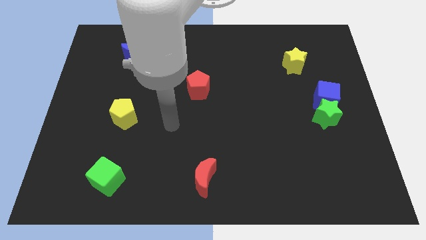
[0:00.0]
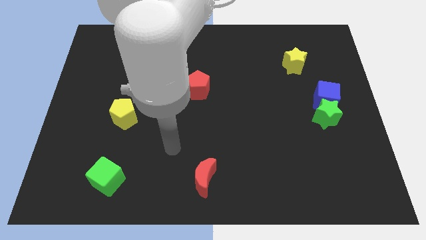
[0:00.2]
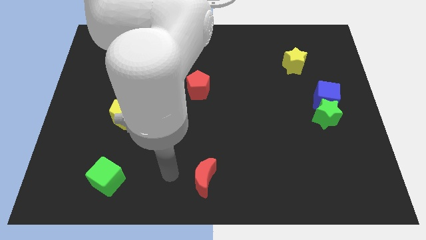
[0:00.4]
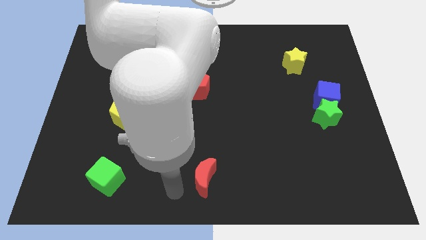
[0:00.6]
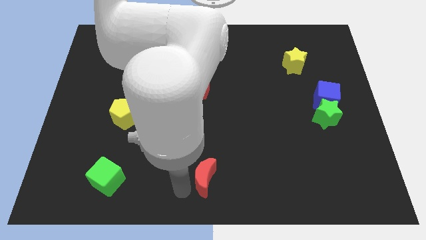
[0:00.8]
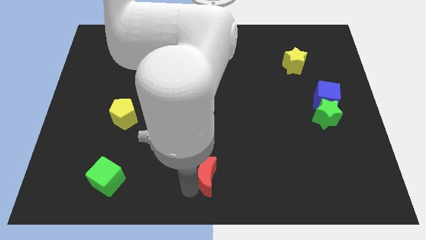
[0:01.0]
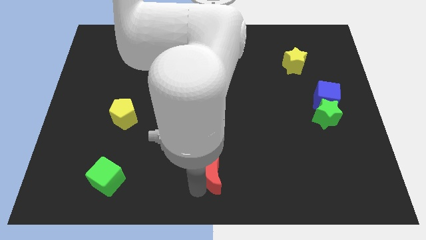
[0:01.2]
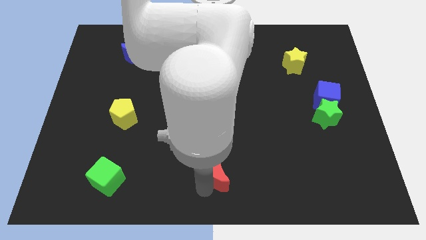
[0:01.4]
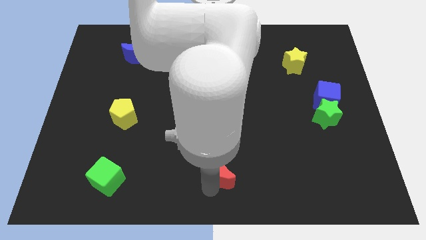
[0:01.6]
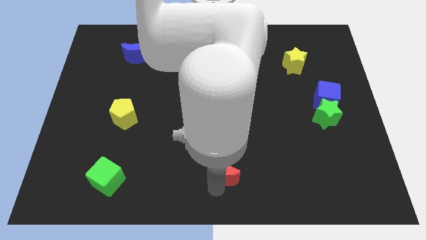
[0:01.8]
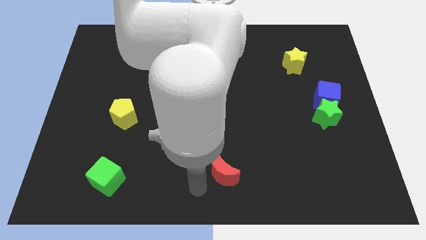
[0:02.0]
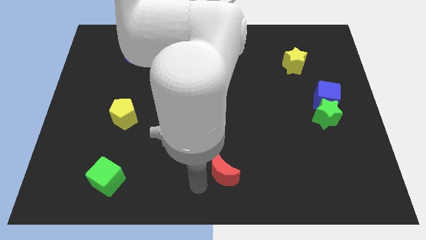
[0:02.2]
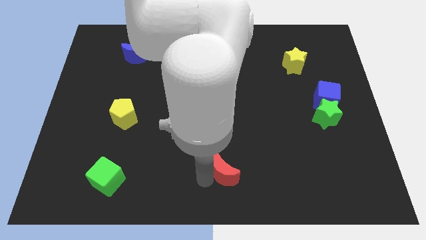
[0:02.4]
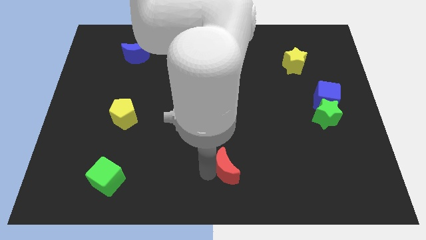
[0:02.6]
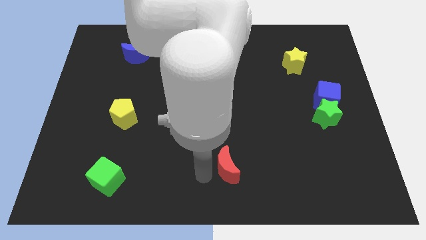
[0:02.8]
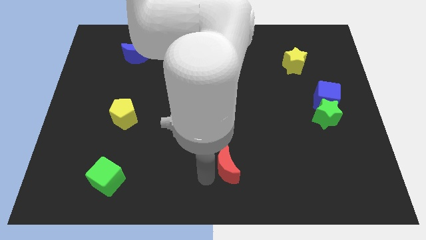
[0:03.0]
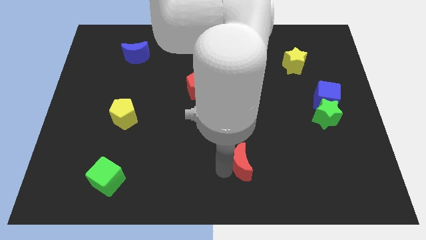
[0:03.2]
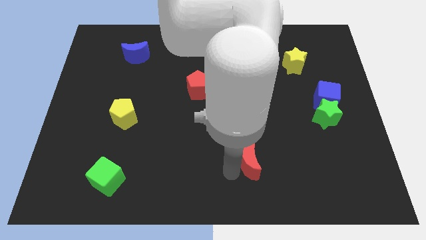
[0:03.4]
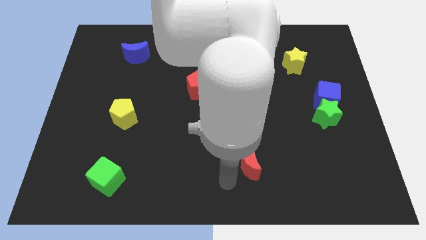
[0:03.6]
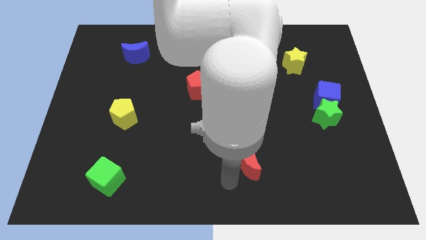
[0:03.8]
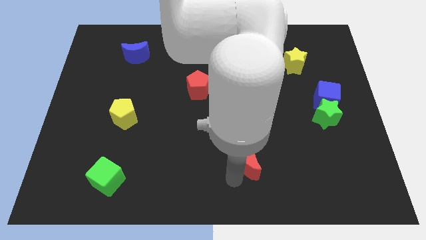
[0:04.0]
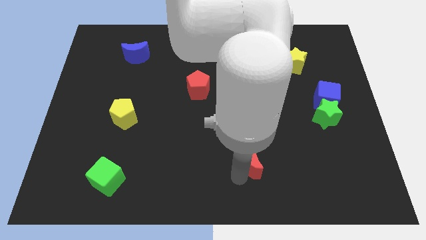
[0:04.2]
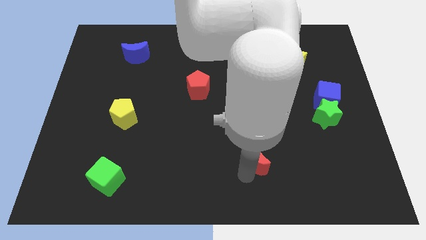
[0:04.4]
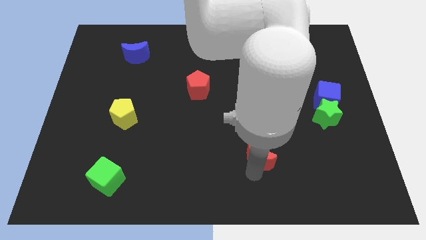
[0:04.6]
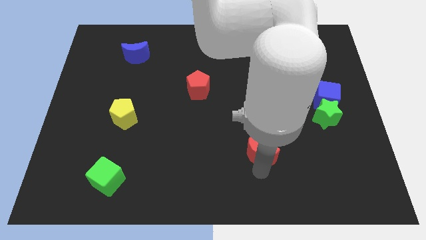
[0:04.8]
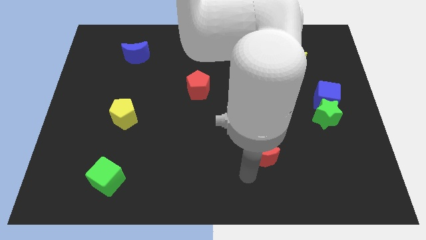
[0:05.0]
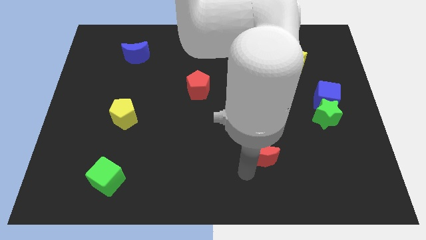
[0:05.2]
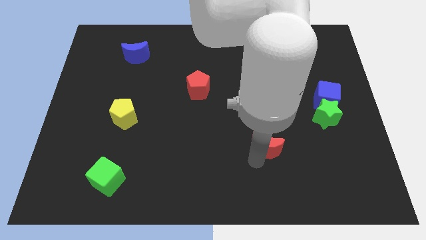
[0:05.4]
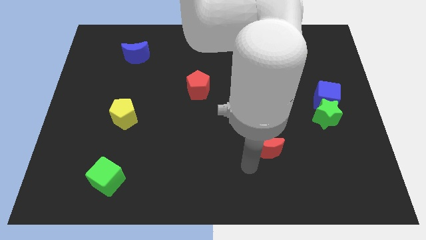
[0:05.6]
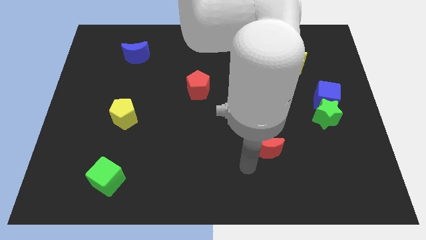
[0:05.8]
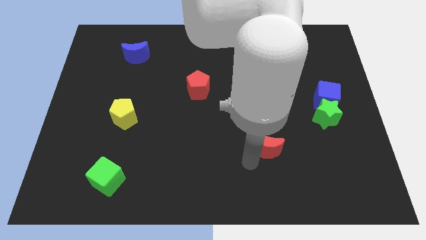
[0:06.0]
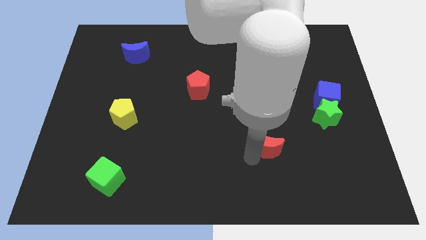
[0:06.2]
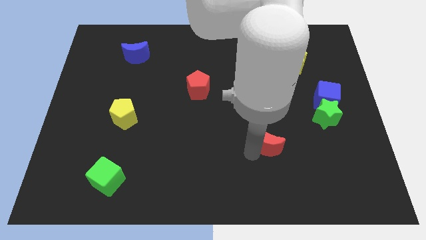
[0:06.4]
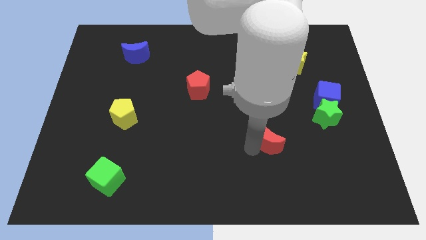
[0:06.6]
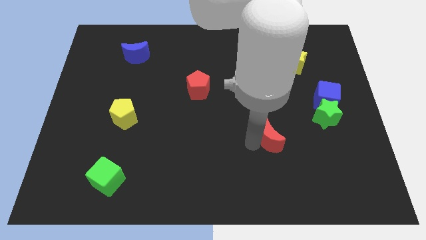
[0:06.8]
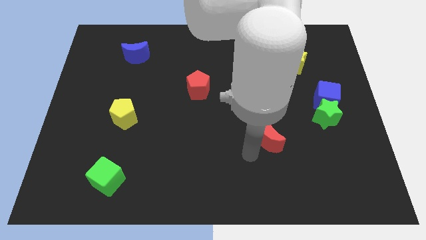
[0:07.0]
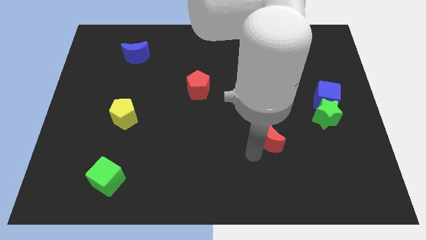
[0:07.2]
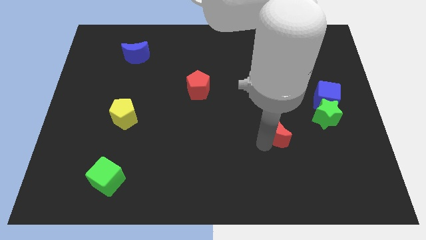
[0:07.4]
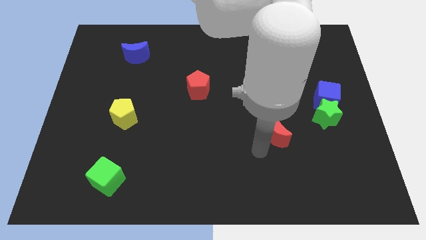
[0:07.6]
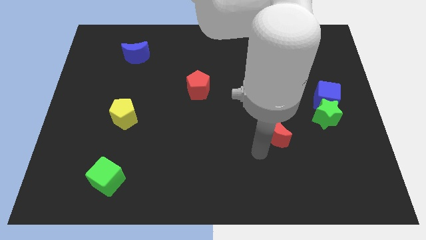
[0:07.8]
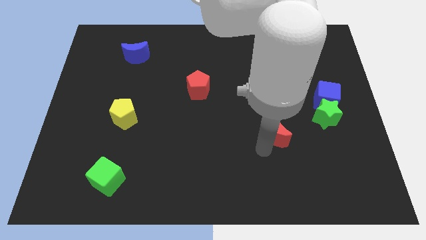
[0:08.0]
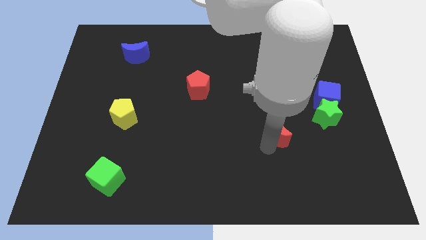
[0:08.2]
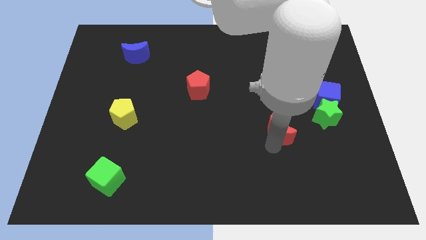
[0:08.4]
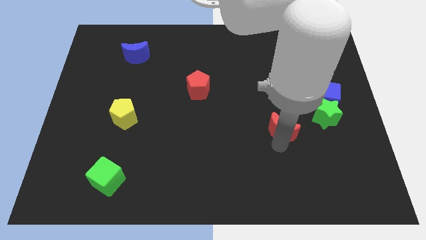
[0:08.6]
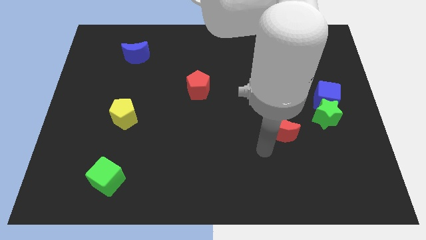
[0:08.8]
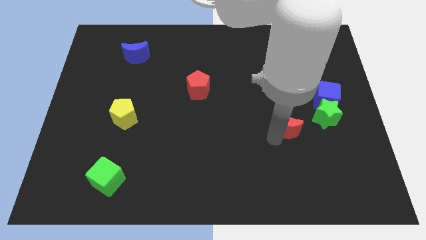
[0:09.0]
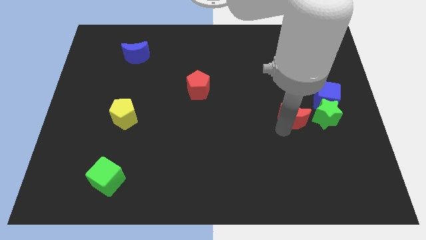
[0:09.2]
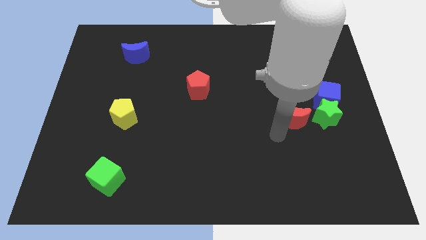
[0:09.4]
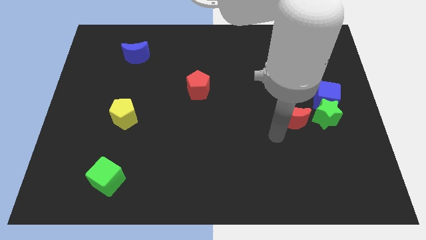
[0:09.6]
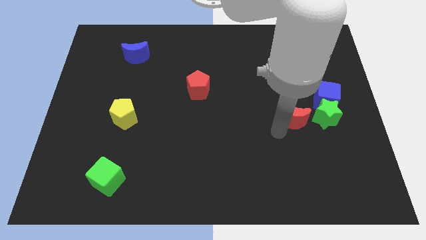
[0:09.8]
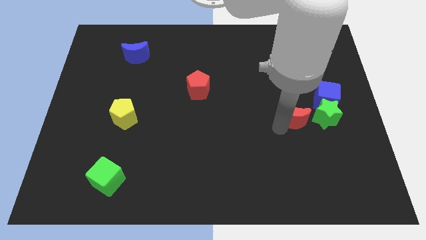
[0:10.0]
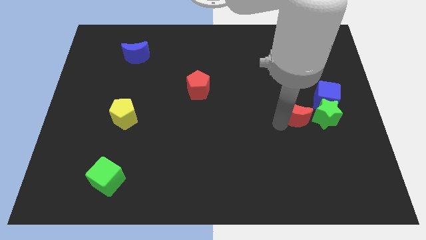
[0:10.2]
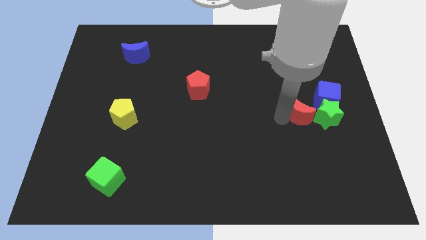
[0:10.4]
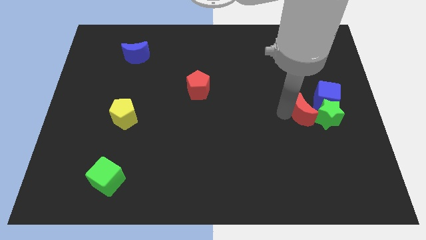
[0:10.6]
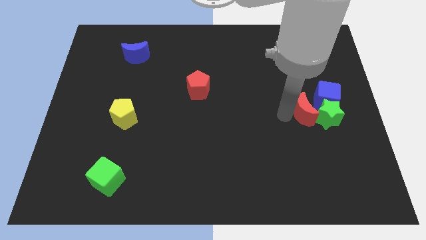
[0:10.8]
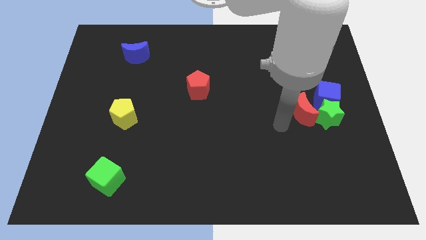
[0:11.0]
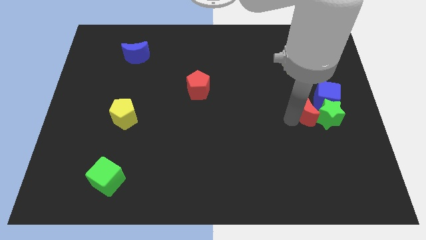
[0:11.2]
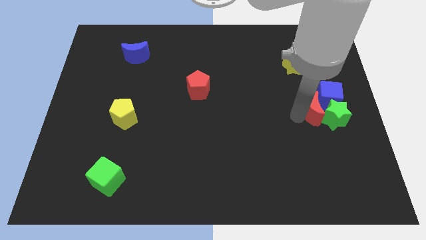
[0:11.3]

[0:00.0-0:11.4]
put the red moon towards the blue cube

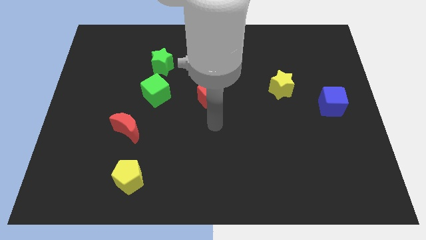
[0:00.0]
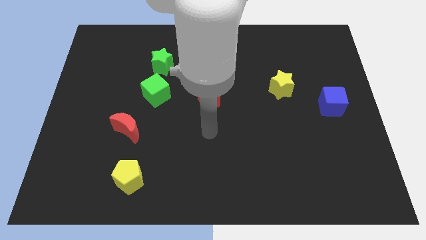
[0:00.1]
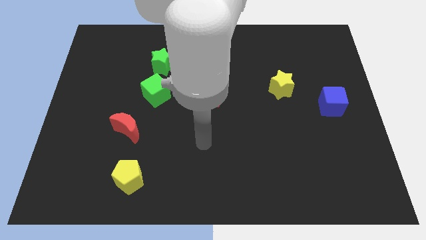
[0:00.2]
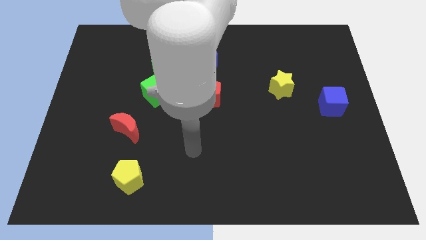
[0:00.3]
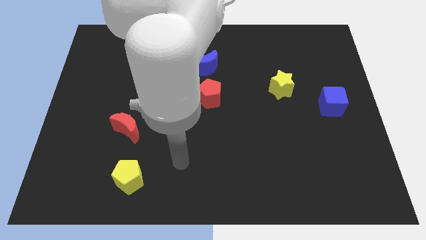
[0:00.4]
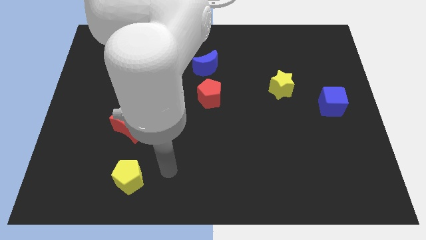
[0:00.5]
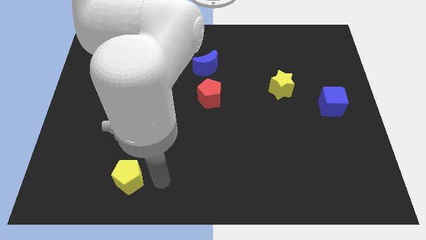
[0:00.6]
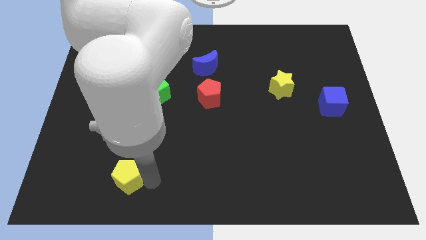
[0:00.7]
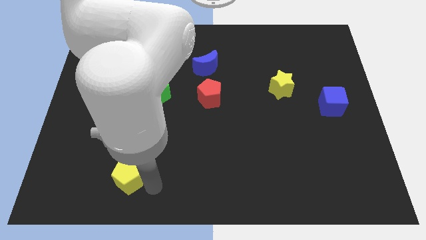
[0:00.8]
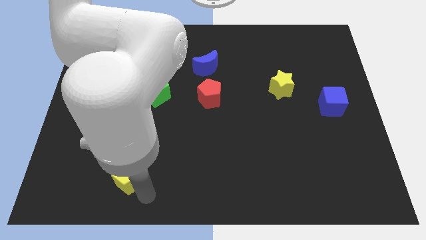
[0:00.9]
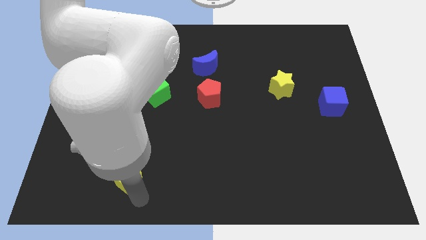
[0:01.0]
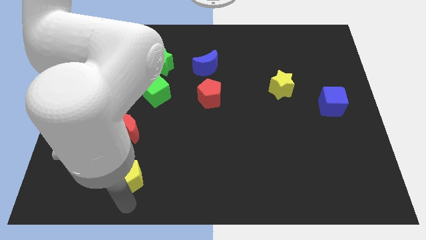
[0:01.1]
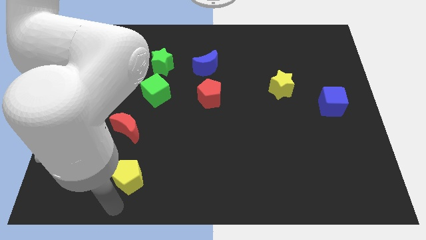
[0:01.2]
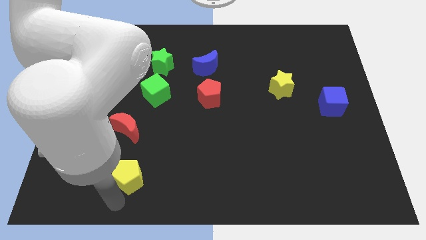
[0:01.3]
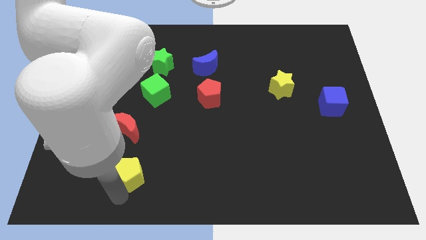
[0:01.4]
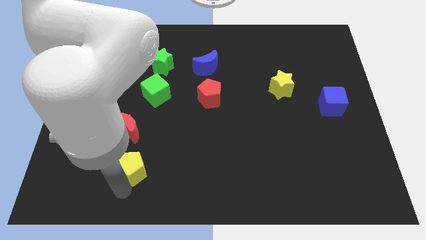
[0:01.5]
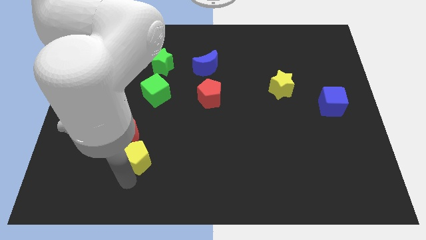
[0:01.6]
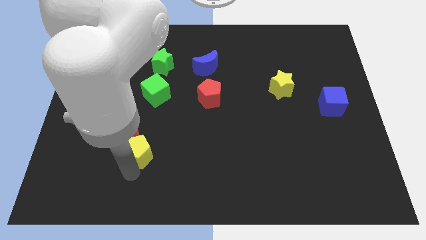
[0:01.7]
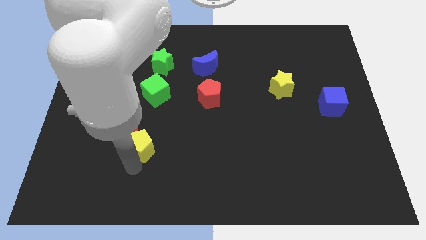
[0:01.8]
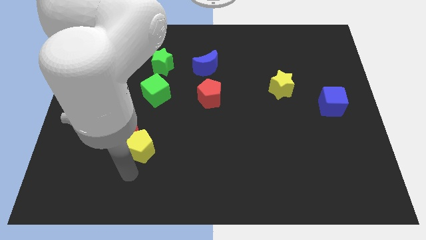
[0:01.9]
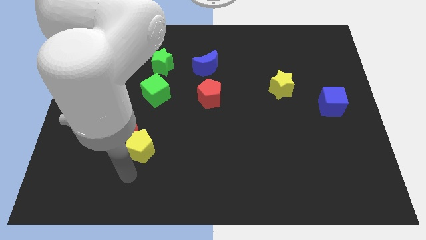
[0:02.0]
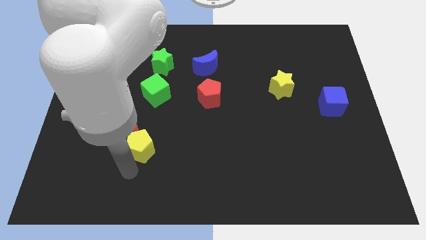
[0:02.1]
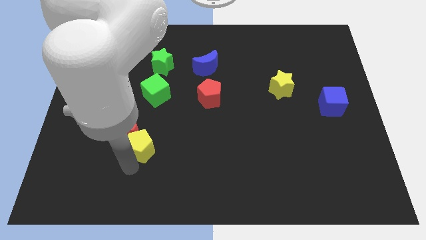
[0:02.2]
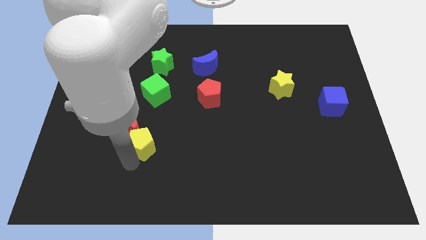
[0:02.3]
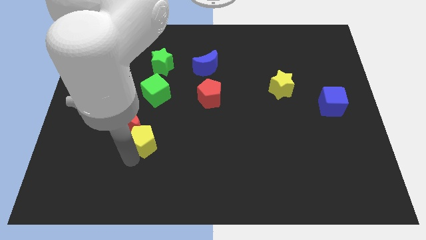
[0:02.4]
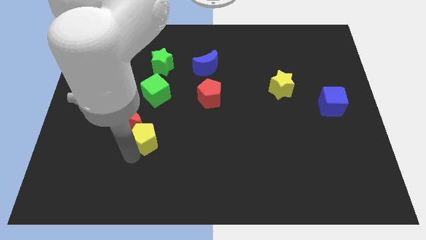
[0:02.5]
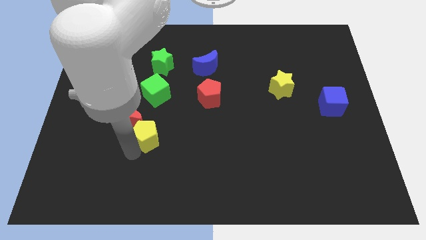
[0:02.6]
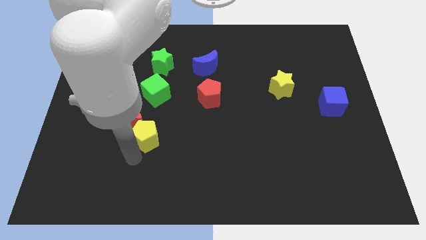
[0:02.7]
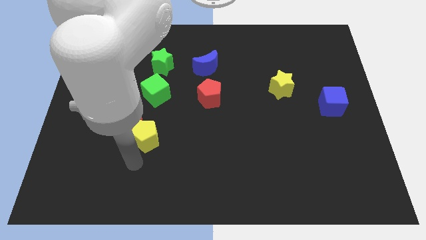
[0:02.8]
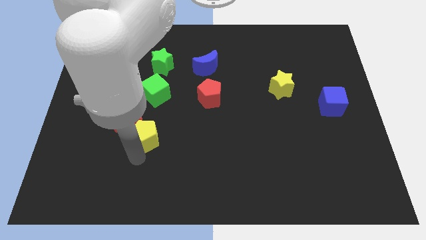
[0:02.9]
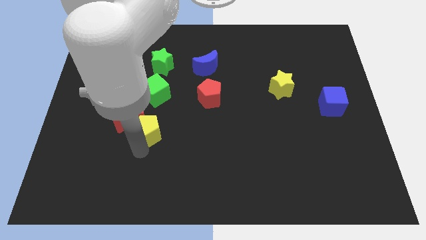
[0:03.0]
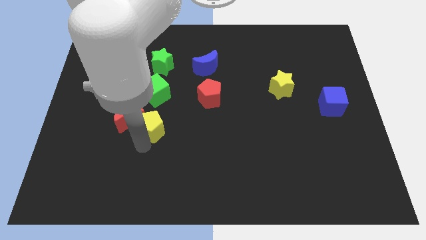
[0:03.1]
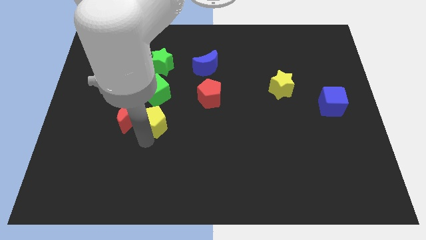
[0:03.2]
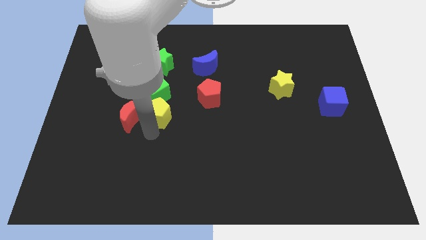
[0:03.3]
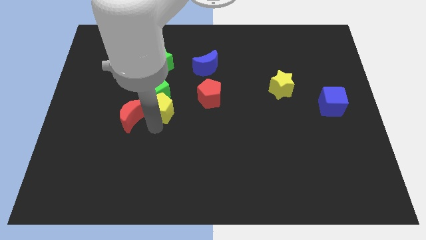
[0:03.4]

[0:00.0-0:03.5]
slide the yellow pentagon to the green cube
